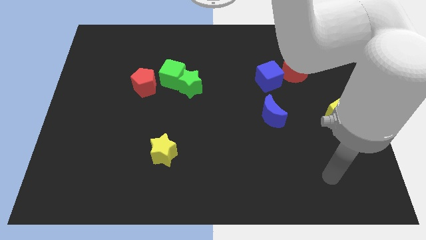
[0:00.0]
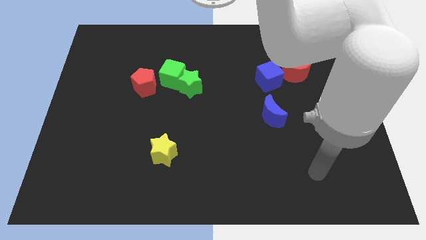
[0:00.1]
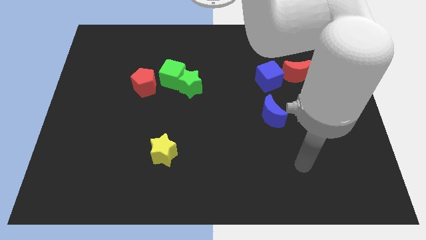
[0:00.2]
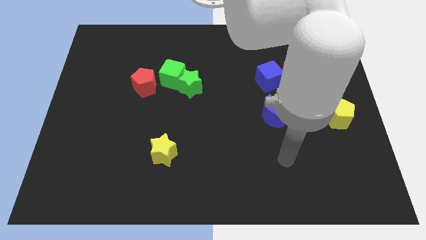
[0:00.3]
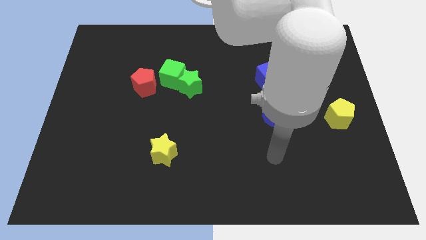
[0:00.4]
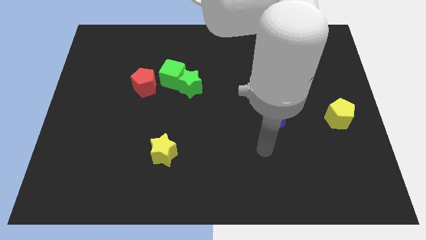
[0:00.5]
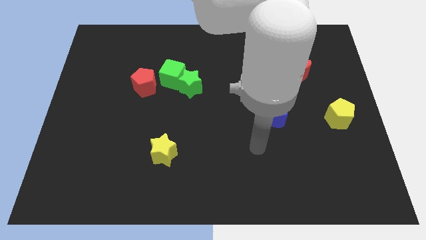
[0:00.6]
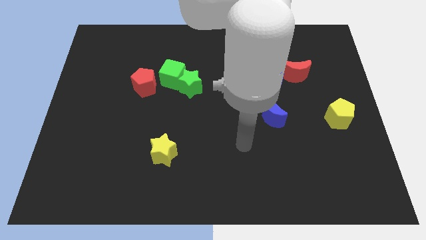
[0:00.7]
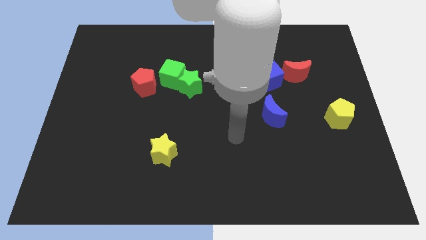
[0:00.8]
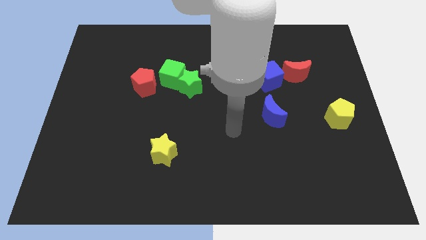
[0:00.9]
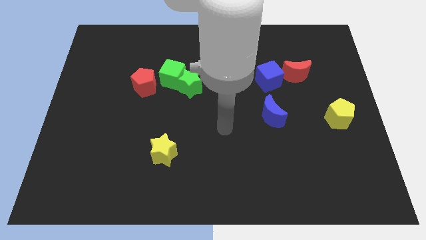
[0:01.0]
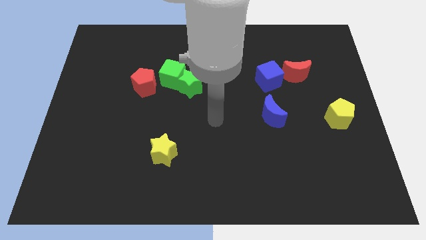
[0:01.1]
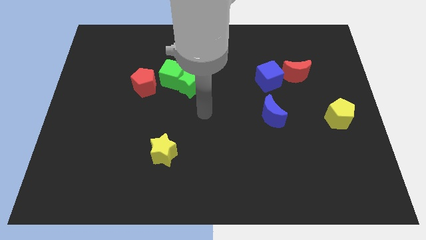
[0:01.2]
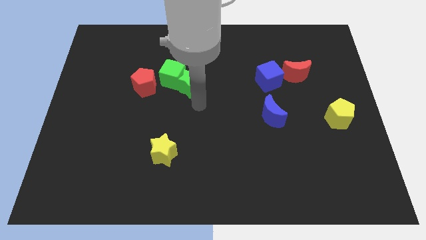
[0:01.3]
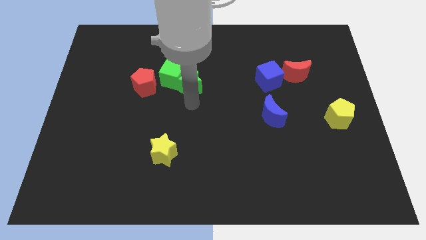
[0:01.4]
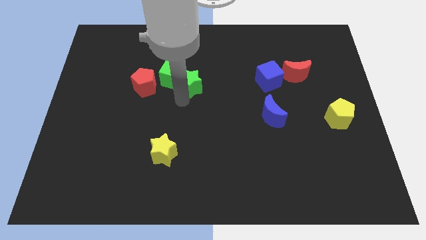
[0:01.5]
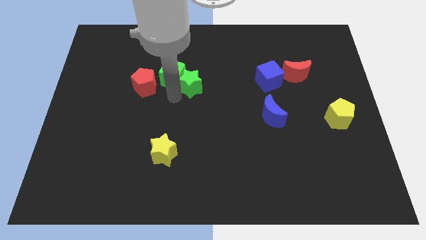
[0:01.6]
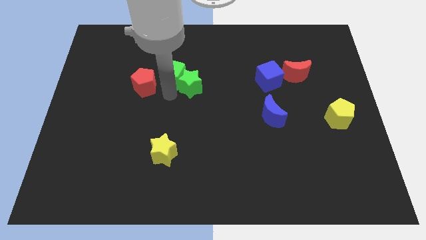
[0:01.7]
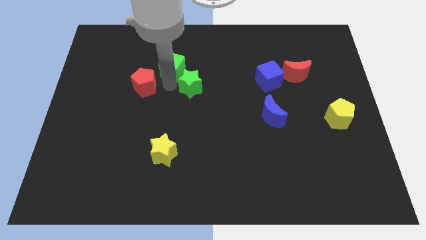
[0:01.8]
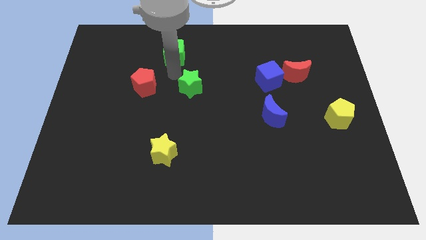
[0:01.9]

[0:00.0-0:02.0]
pull the green star apart from the green cube

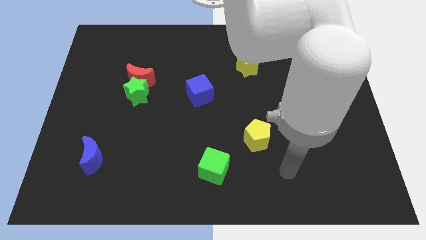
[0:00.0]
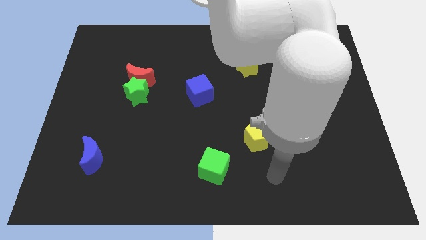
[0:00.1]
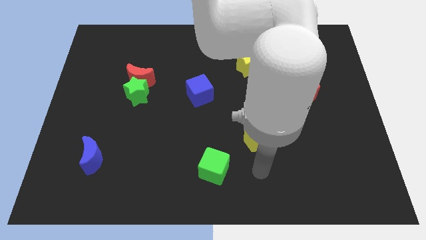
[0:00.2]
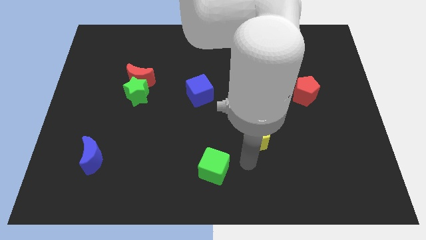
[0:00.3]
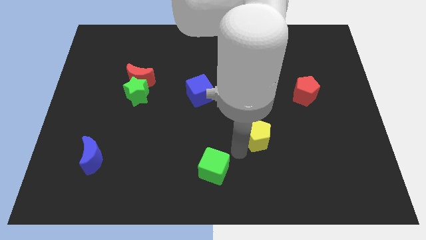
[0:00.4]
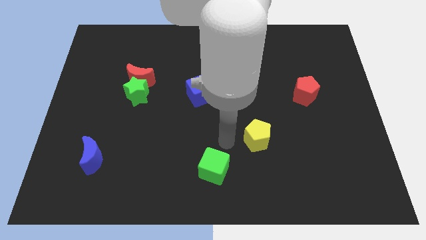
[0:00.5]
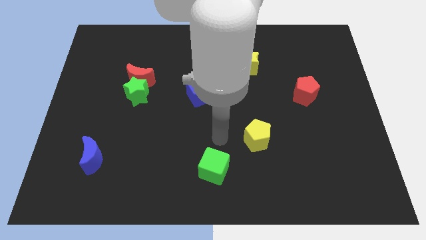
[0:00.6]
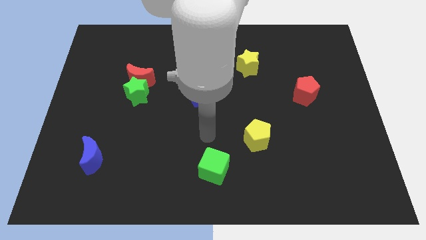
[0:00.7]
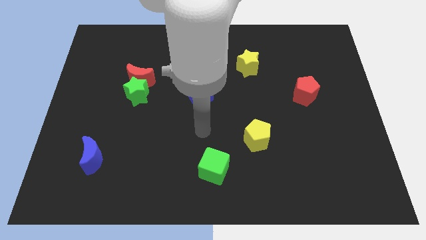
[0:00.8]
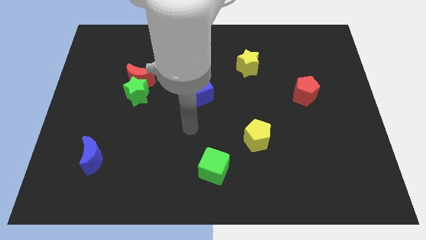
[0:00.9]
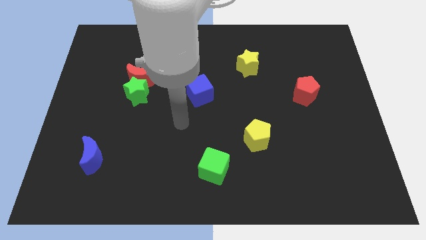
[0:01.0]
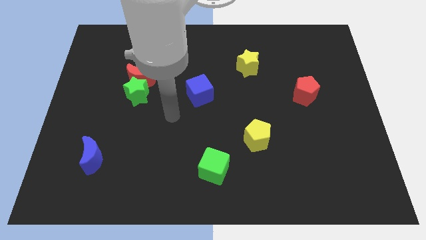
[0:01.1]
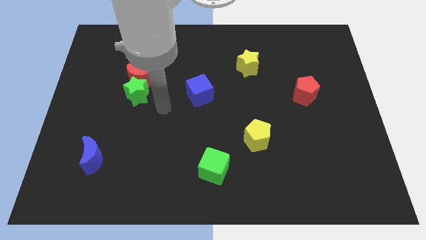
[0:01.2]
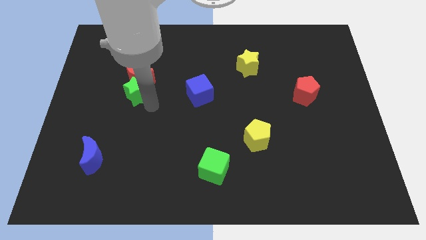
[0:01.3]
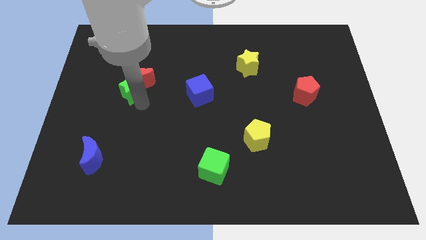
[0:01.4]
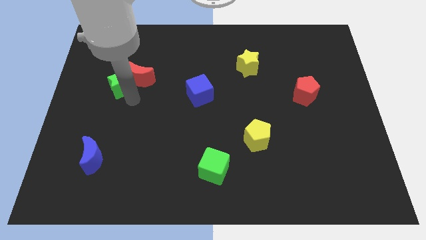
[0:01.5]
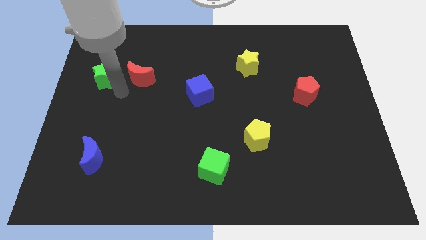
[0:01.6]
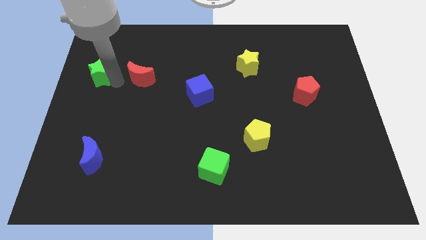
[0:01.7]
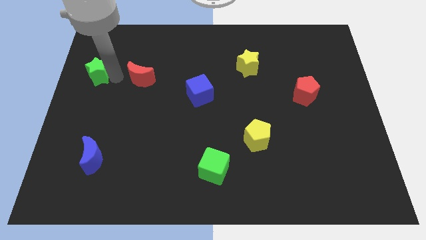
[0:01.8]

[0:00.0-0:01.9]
move the red moon away from the green star

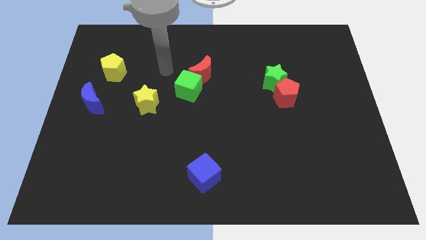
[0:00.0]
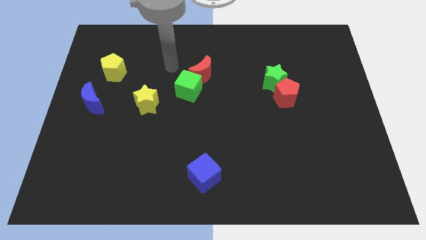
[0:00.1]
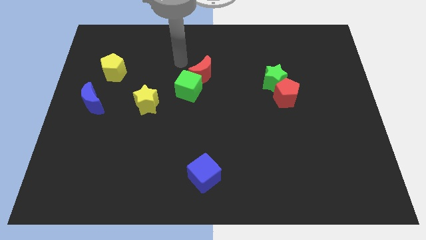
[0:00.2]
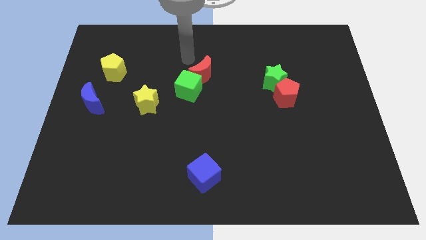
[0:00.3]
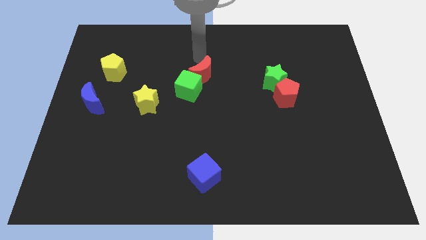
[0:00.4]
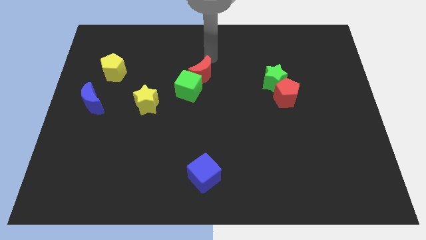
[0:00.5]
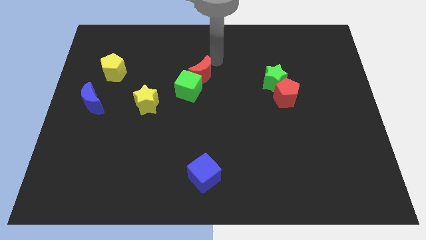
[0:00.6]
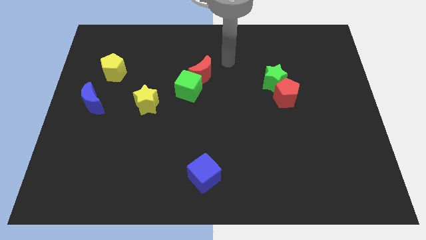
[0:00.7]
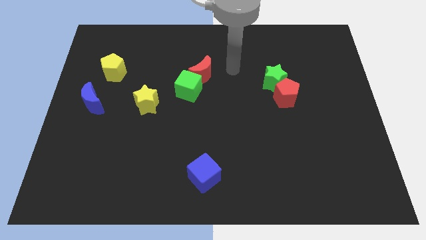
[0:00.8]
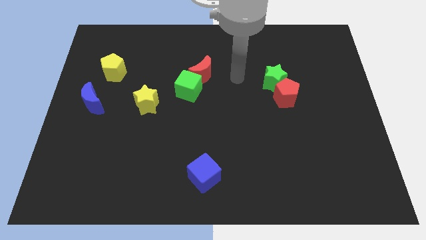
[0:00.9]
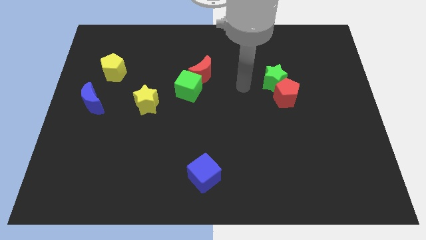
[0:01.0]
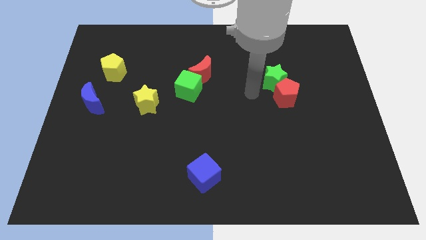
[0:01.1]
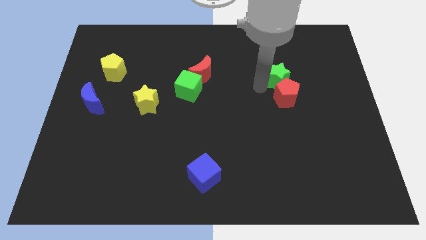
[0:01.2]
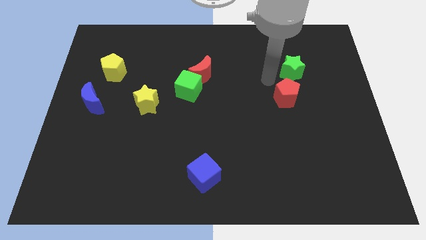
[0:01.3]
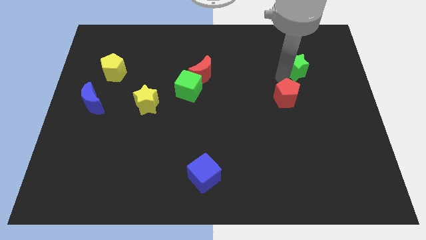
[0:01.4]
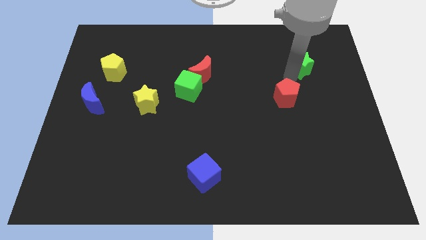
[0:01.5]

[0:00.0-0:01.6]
pull the red pentagon apart from the green star

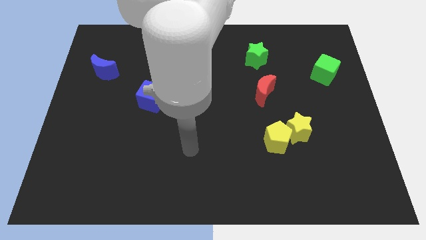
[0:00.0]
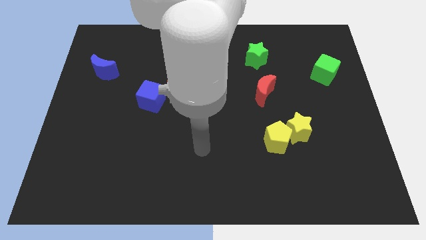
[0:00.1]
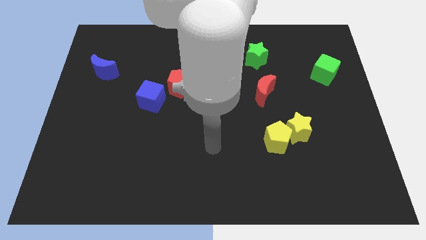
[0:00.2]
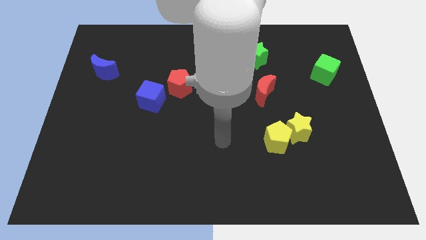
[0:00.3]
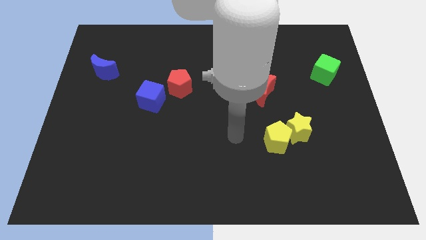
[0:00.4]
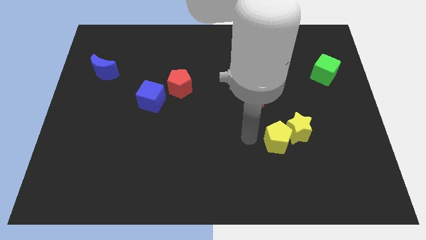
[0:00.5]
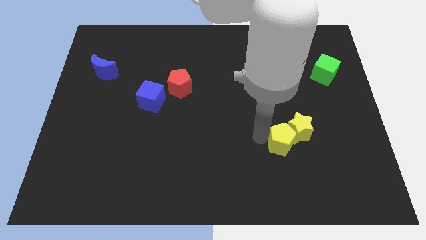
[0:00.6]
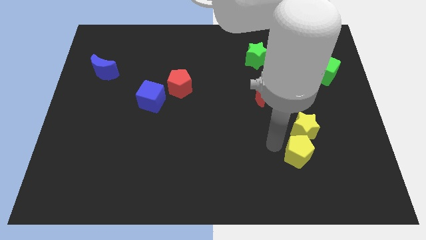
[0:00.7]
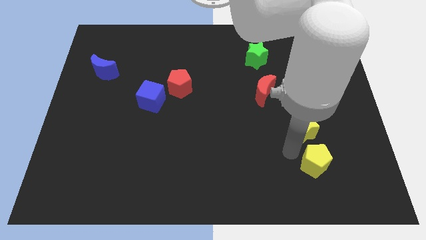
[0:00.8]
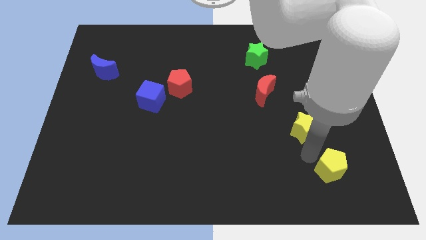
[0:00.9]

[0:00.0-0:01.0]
pull the yellow star apart from the yellow pentagon

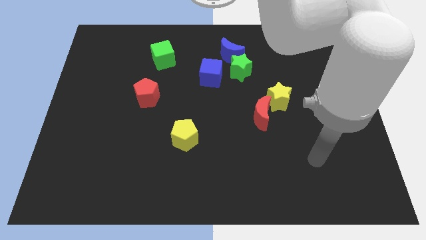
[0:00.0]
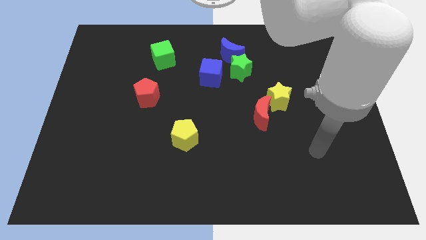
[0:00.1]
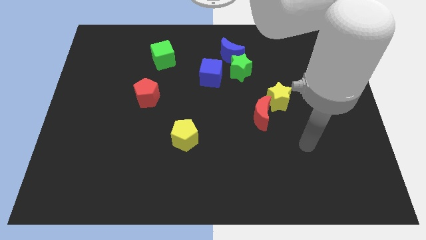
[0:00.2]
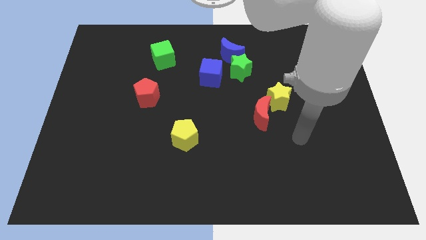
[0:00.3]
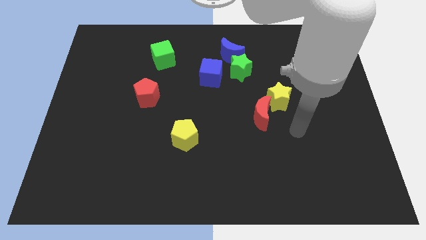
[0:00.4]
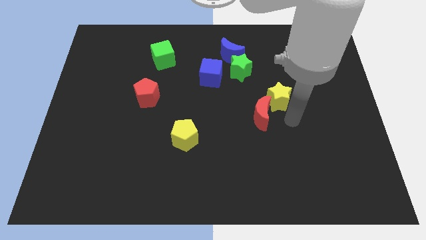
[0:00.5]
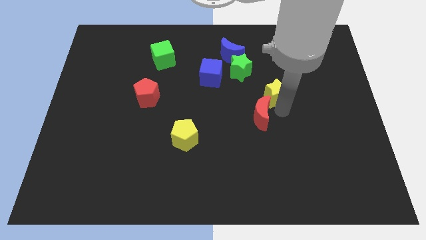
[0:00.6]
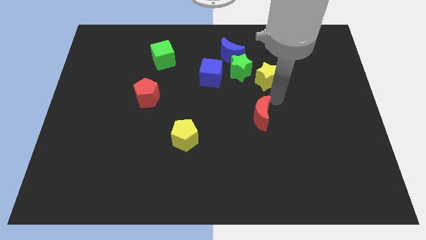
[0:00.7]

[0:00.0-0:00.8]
separate the red moon from the yellow star

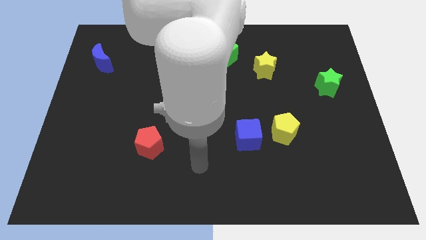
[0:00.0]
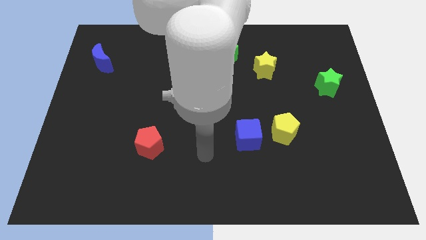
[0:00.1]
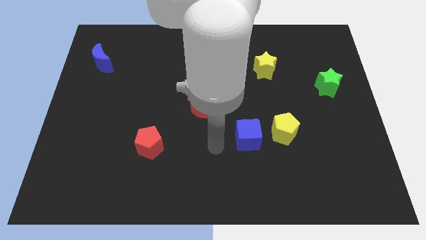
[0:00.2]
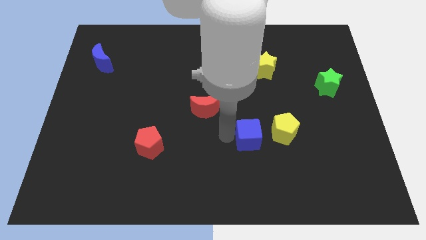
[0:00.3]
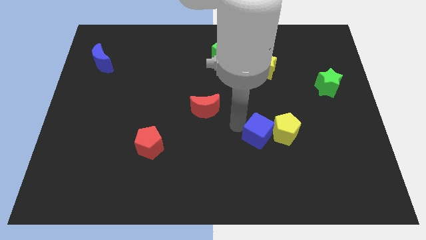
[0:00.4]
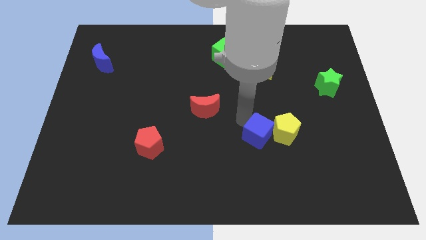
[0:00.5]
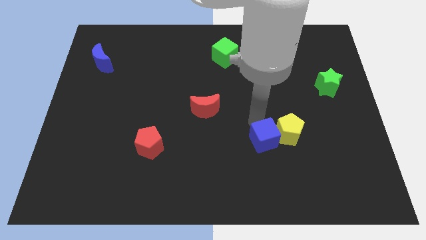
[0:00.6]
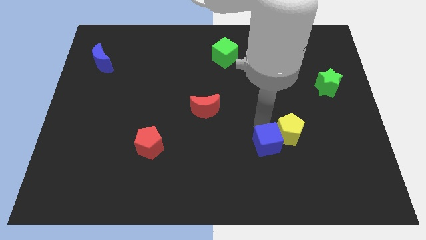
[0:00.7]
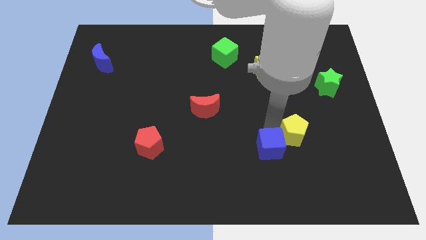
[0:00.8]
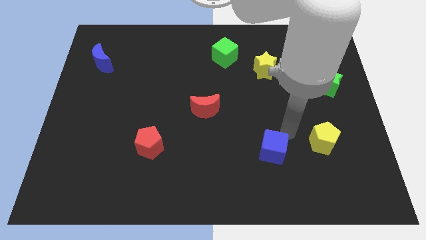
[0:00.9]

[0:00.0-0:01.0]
move the blue cube away from the yellow pentagon

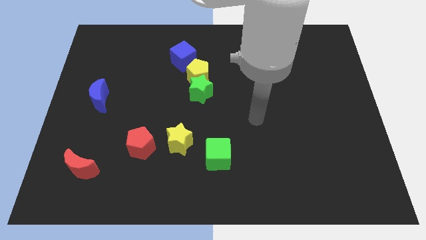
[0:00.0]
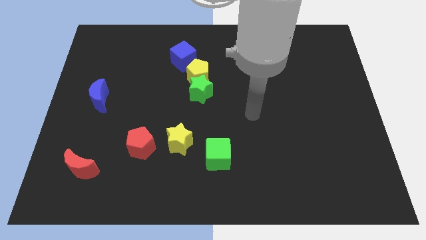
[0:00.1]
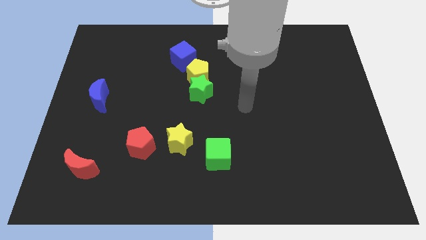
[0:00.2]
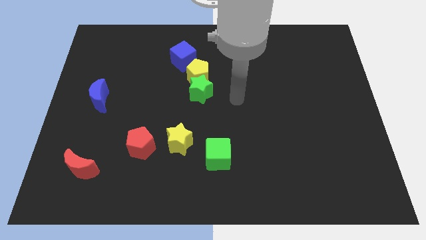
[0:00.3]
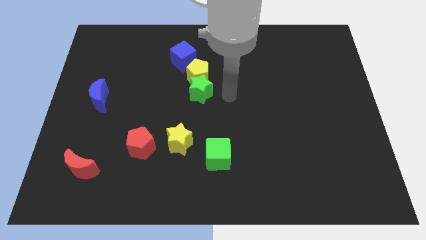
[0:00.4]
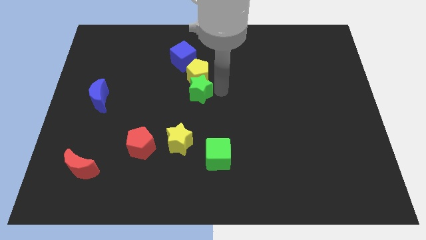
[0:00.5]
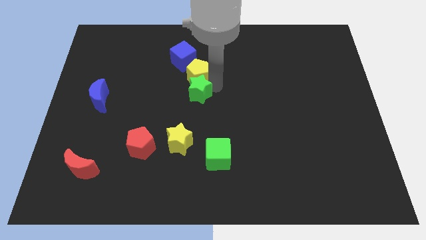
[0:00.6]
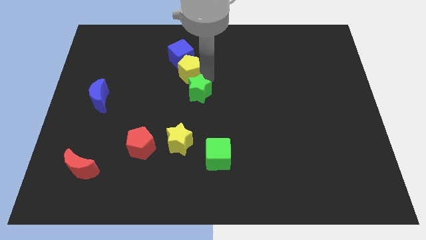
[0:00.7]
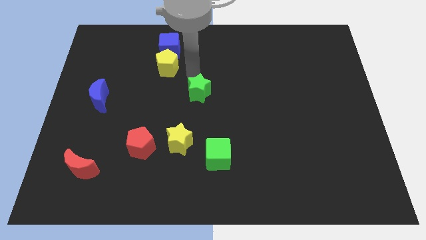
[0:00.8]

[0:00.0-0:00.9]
separate the green star from the yellow pentagon

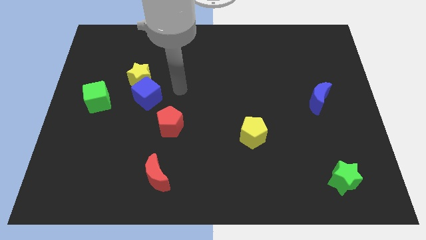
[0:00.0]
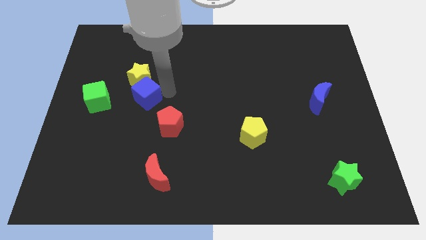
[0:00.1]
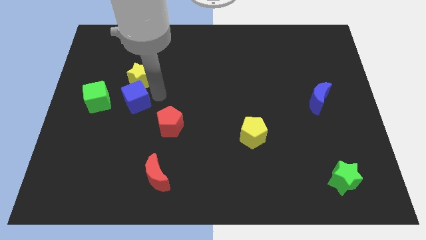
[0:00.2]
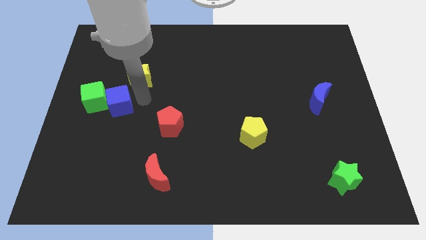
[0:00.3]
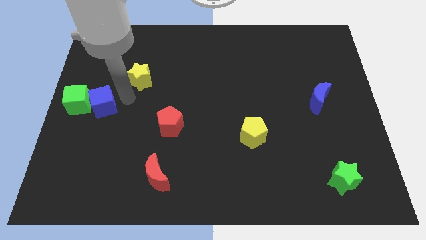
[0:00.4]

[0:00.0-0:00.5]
separate the yellow star from the blue cube
